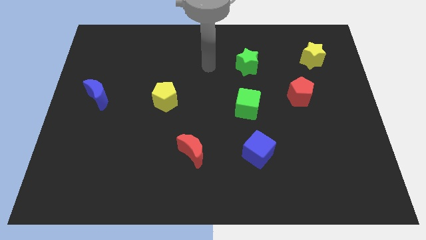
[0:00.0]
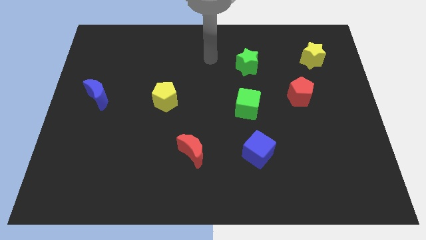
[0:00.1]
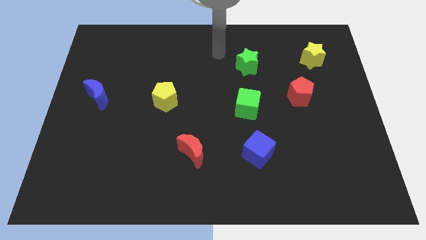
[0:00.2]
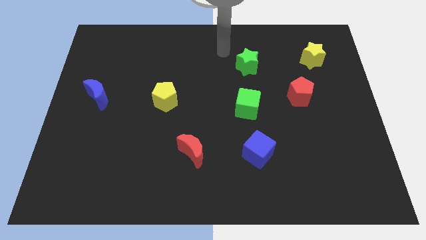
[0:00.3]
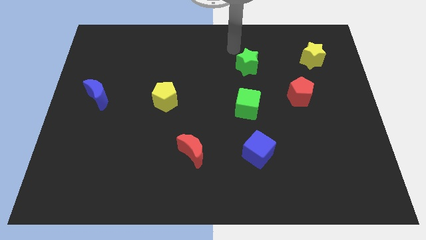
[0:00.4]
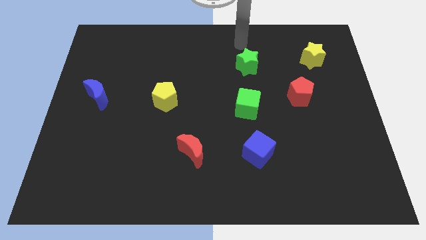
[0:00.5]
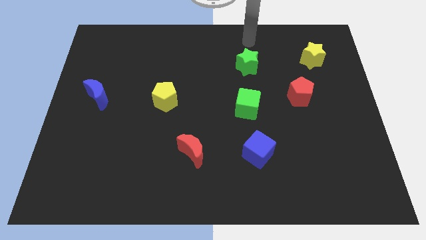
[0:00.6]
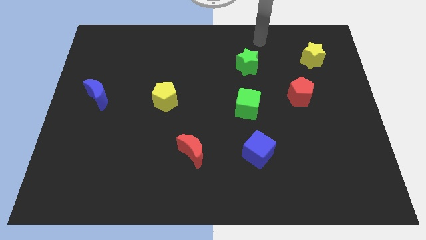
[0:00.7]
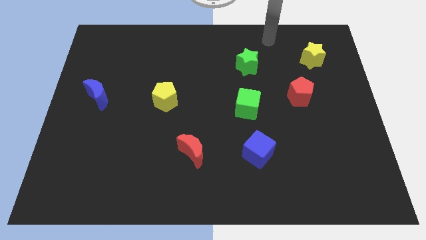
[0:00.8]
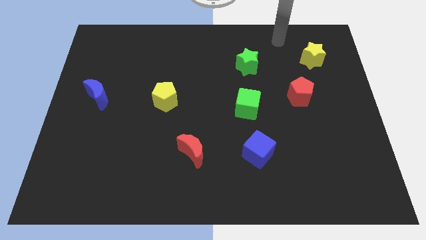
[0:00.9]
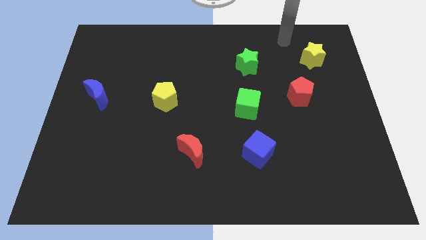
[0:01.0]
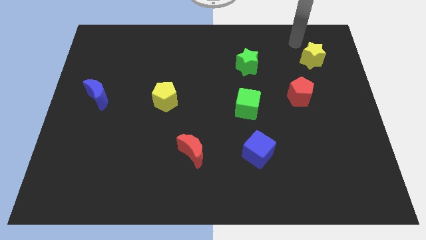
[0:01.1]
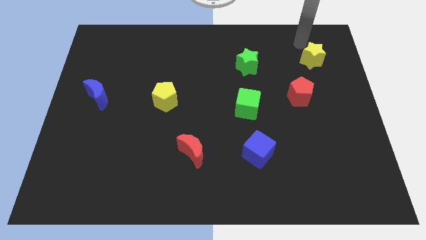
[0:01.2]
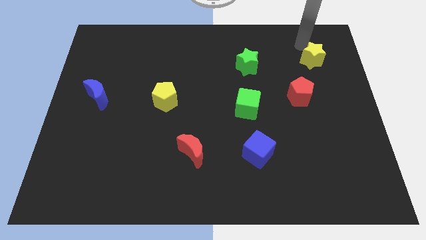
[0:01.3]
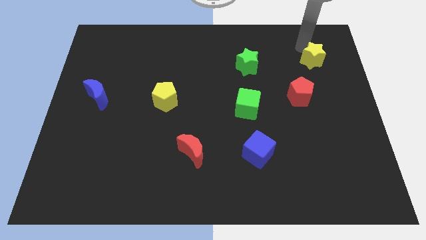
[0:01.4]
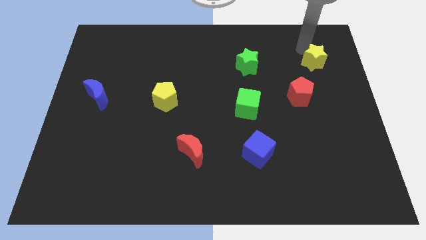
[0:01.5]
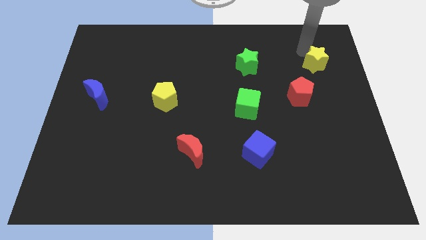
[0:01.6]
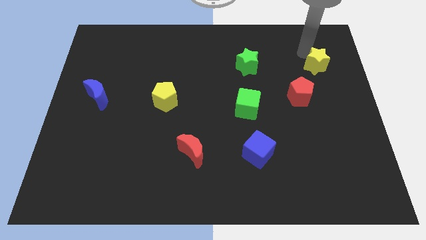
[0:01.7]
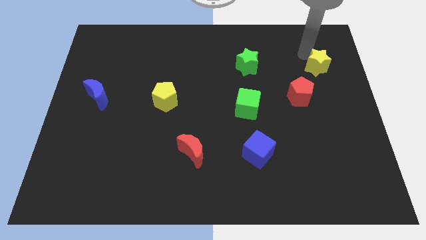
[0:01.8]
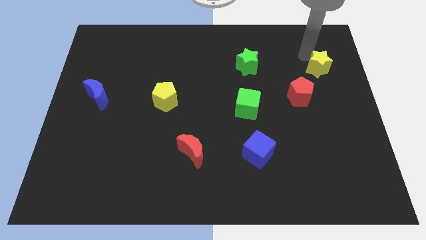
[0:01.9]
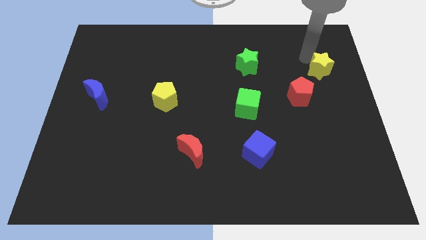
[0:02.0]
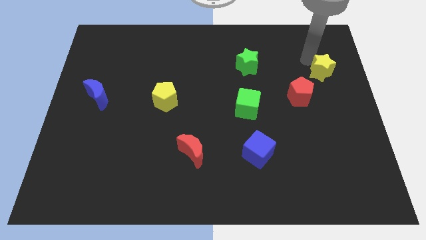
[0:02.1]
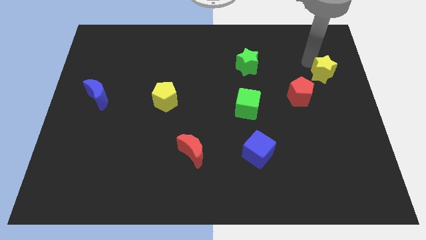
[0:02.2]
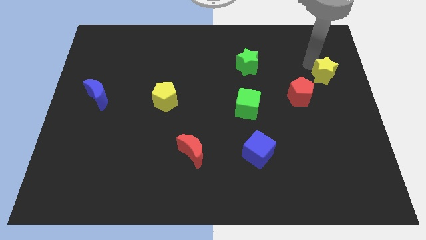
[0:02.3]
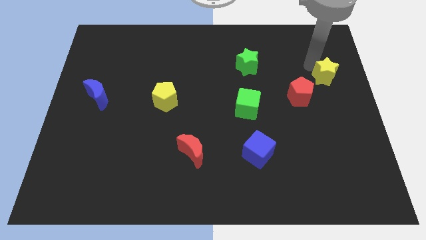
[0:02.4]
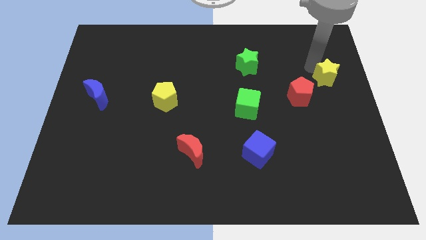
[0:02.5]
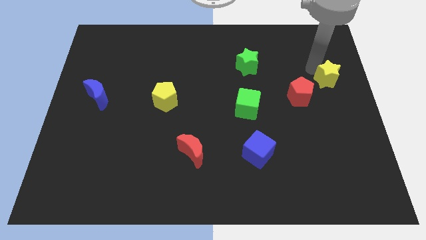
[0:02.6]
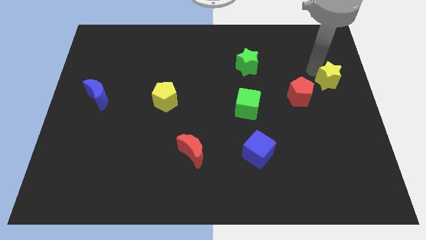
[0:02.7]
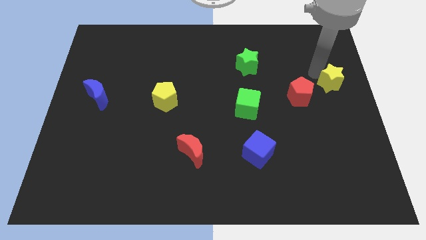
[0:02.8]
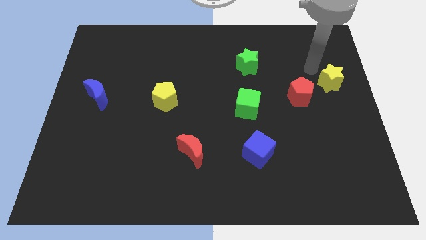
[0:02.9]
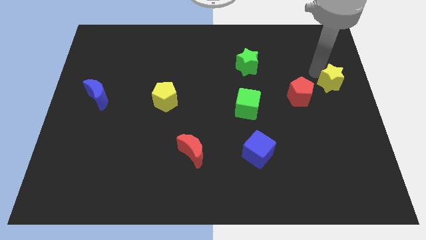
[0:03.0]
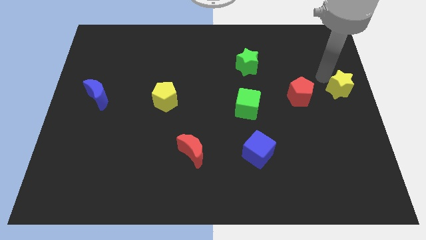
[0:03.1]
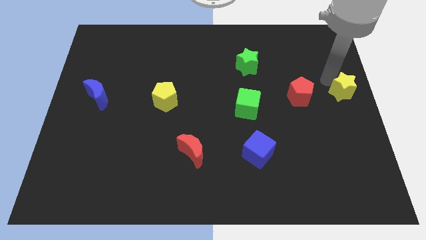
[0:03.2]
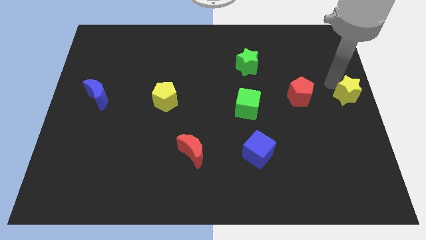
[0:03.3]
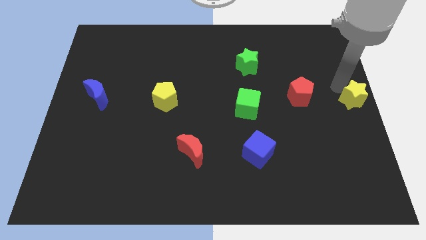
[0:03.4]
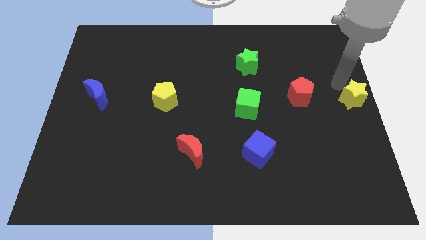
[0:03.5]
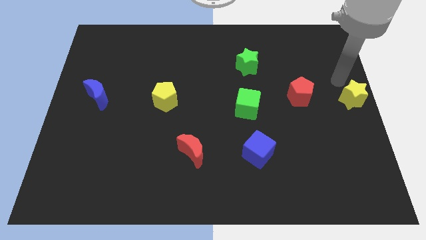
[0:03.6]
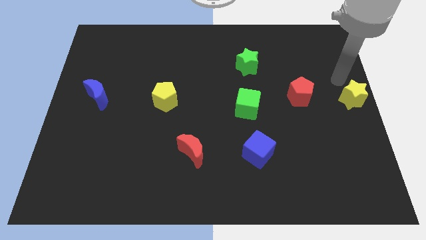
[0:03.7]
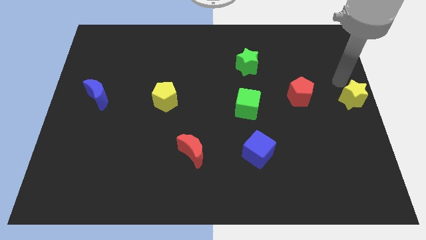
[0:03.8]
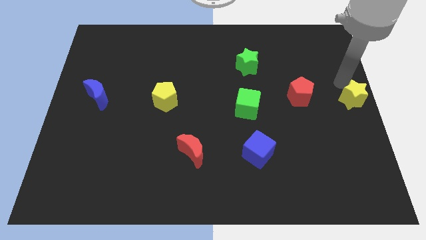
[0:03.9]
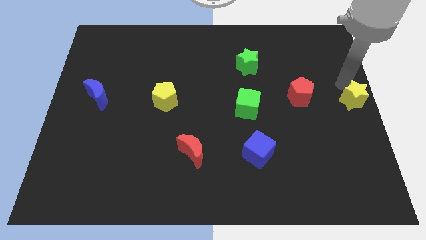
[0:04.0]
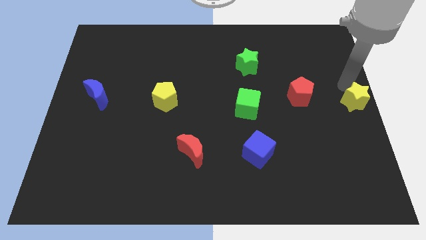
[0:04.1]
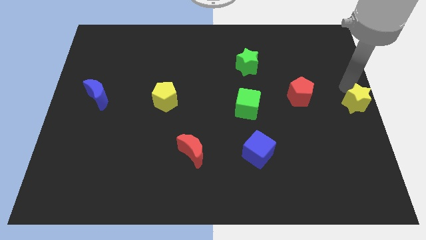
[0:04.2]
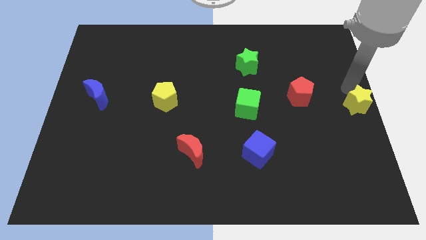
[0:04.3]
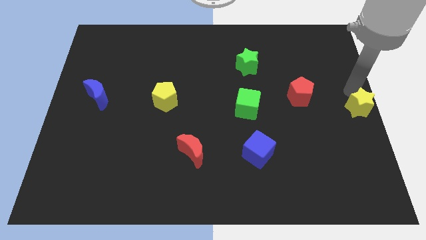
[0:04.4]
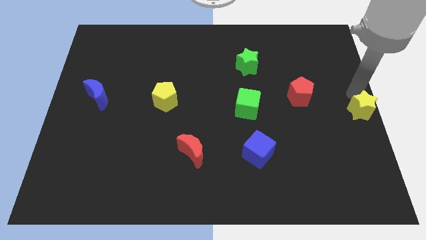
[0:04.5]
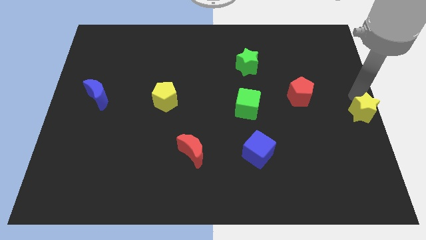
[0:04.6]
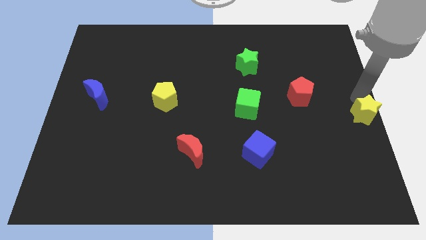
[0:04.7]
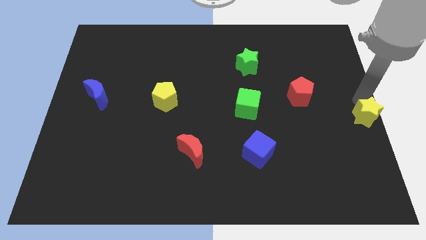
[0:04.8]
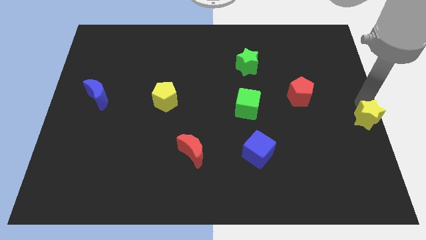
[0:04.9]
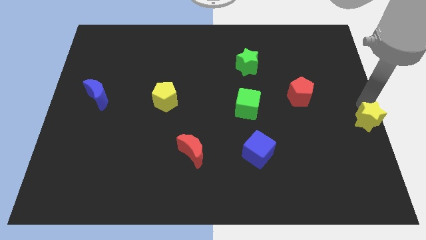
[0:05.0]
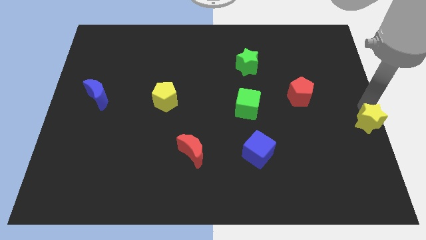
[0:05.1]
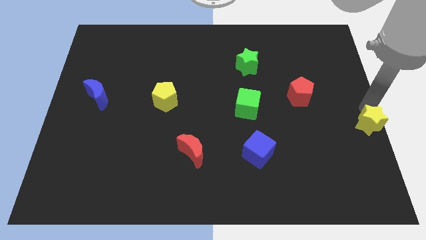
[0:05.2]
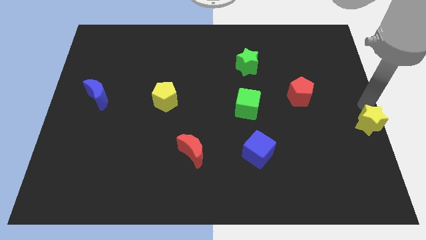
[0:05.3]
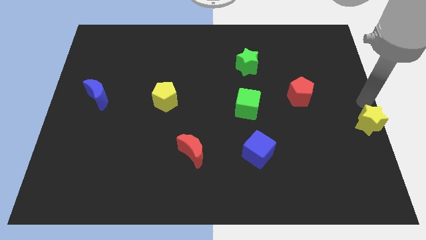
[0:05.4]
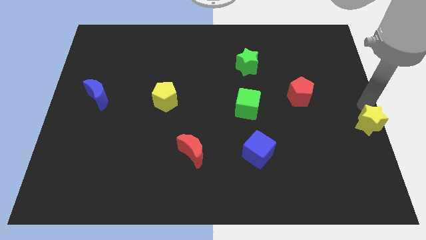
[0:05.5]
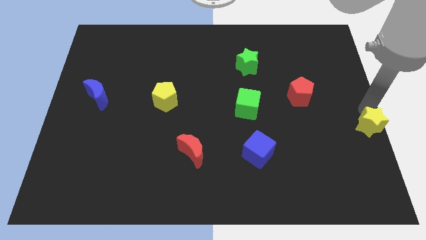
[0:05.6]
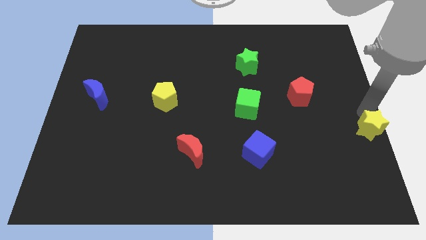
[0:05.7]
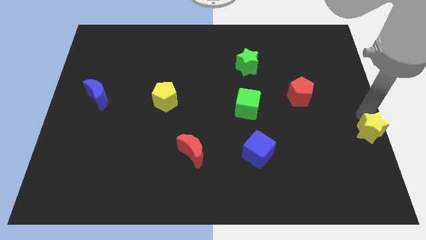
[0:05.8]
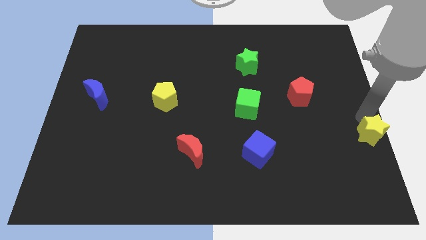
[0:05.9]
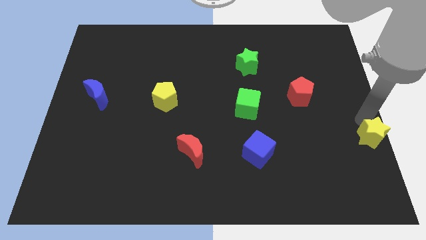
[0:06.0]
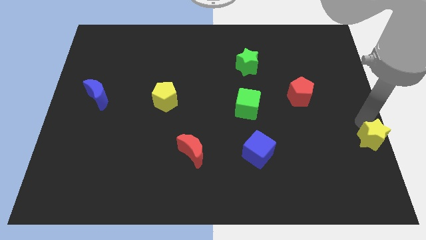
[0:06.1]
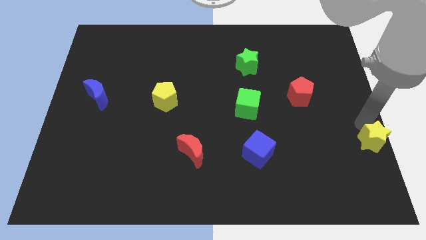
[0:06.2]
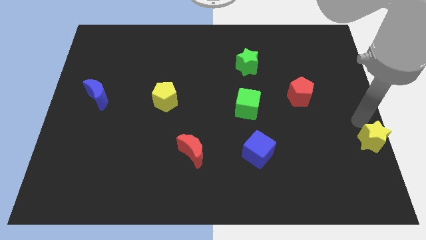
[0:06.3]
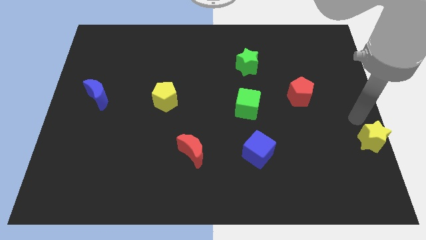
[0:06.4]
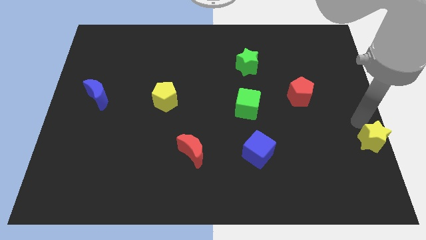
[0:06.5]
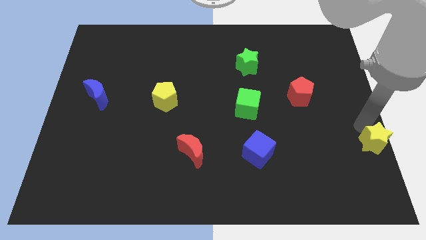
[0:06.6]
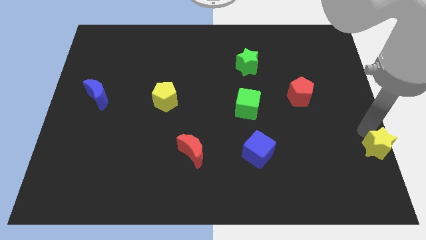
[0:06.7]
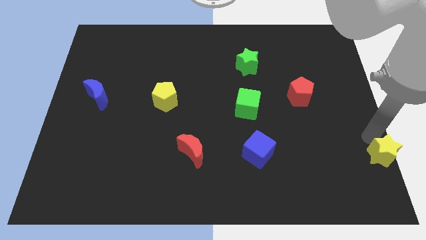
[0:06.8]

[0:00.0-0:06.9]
move the yellow star to the bottom right
